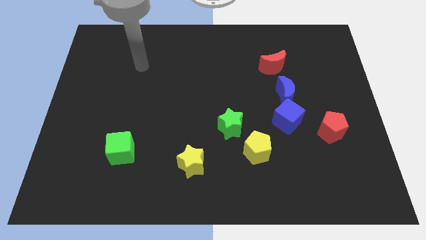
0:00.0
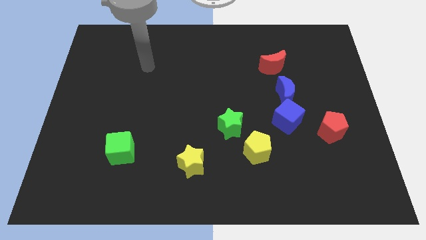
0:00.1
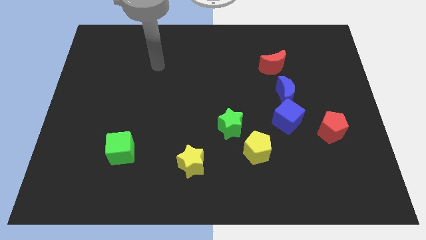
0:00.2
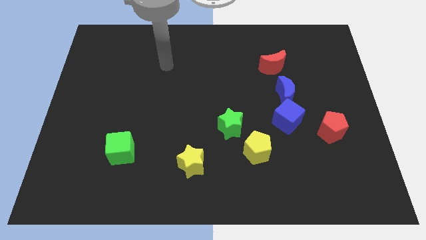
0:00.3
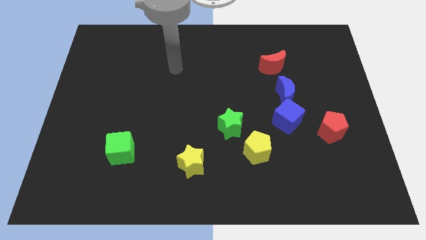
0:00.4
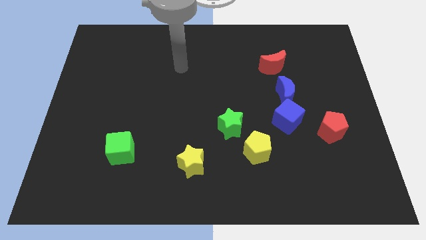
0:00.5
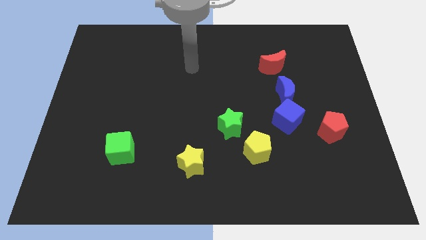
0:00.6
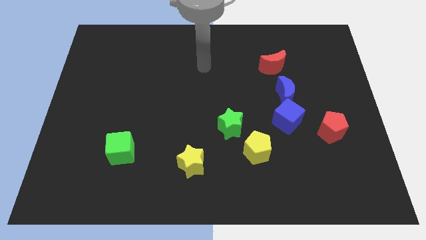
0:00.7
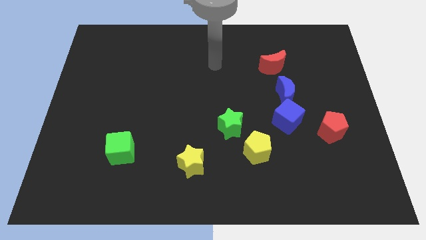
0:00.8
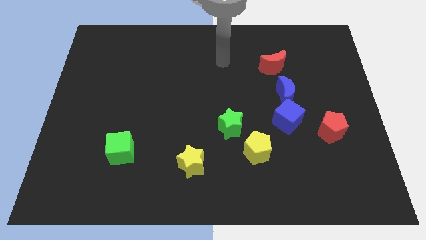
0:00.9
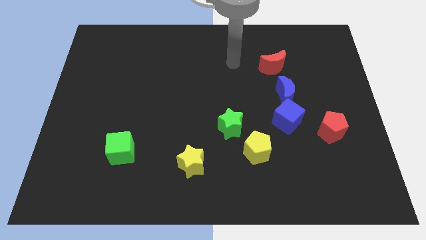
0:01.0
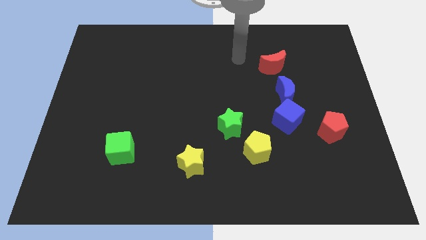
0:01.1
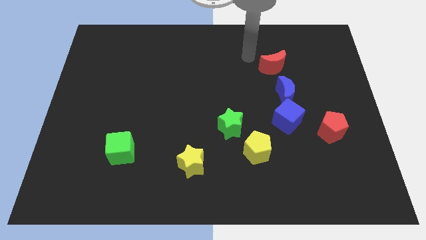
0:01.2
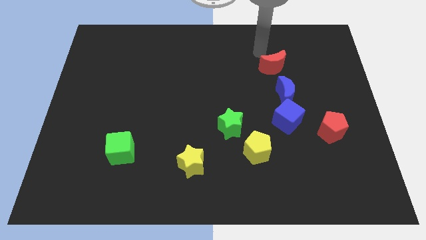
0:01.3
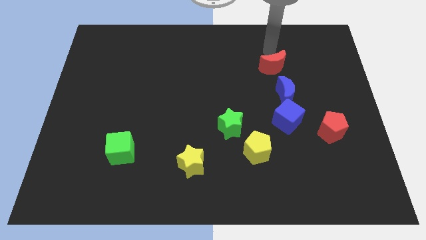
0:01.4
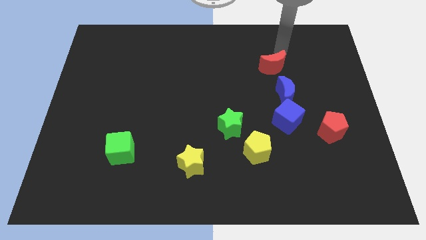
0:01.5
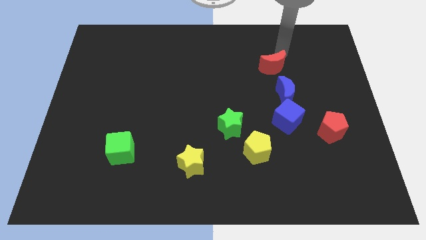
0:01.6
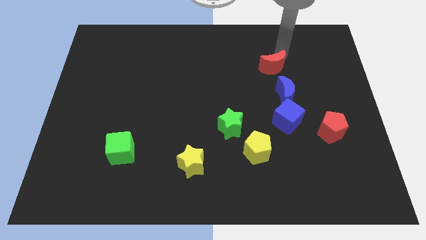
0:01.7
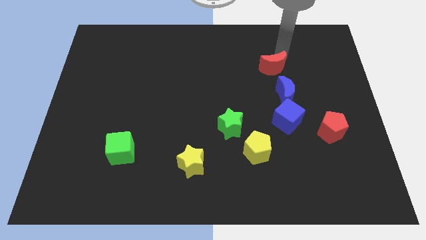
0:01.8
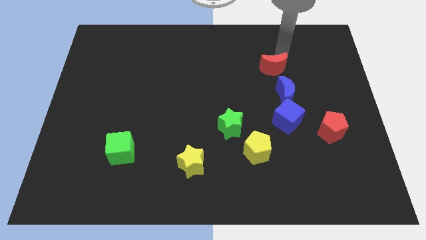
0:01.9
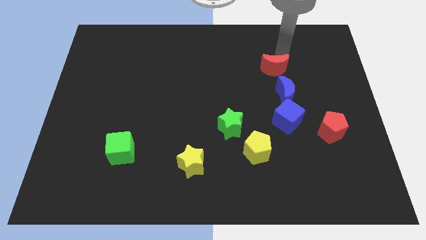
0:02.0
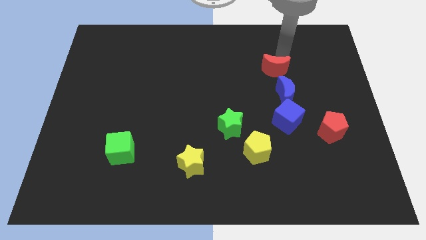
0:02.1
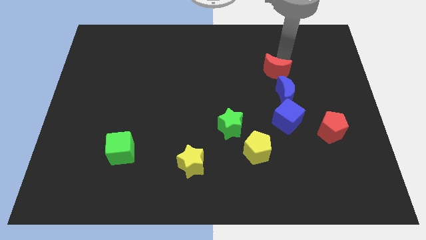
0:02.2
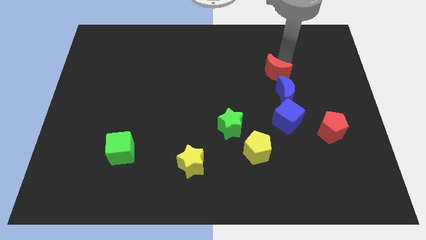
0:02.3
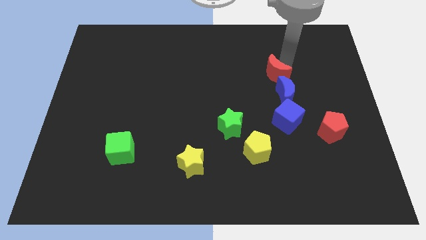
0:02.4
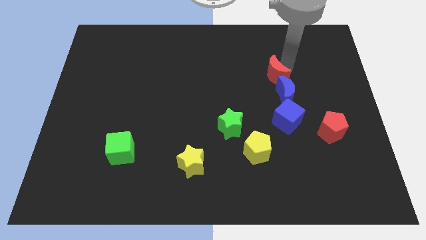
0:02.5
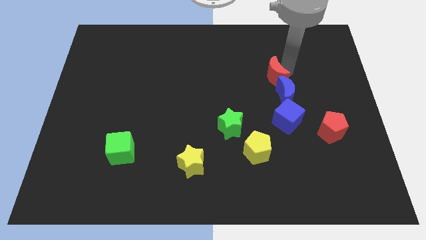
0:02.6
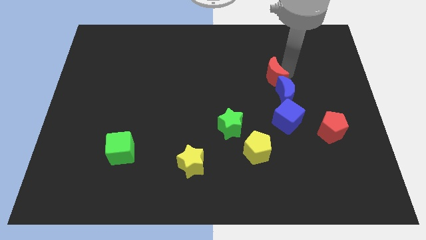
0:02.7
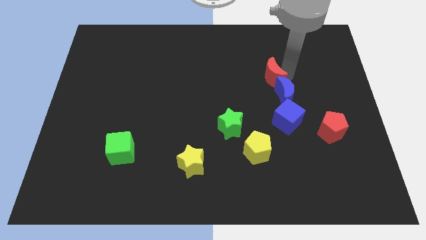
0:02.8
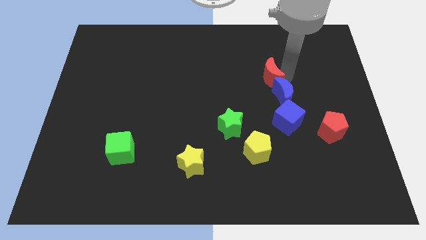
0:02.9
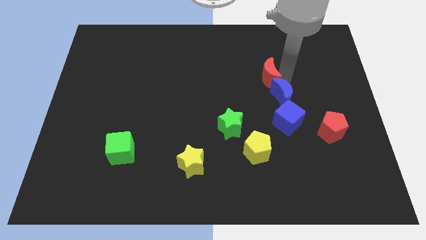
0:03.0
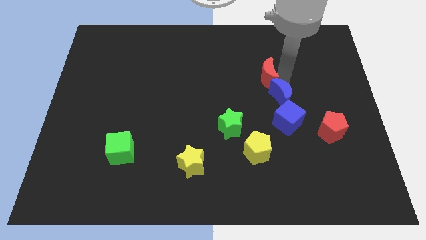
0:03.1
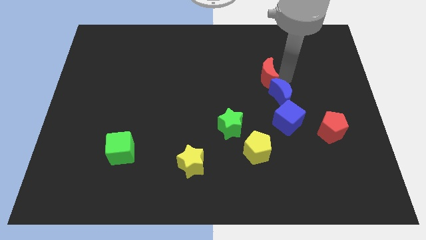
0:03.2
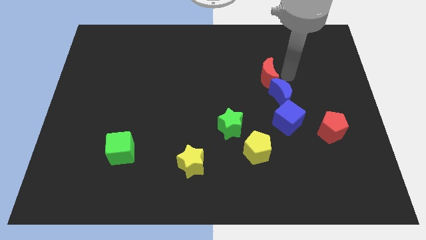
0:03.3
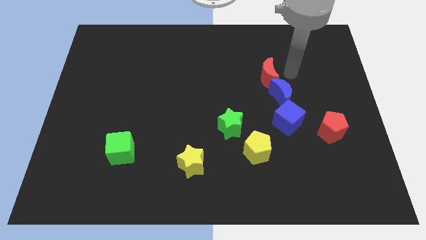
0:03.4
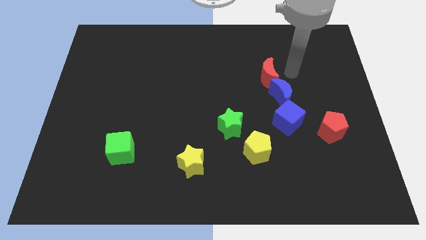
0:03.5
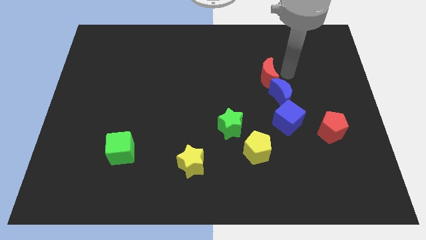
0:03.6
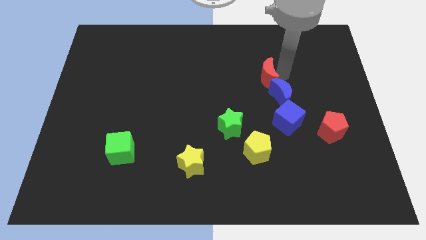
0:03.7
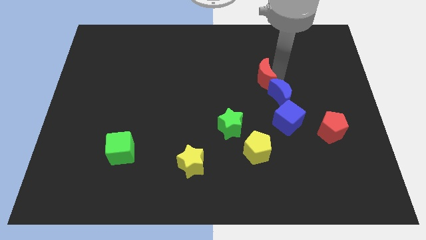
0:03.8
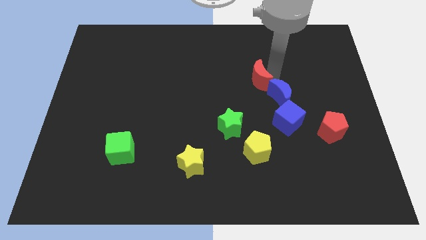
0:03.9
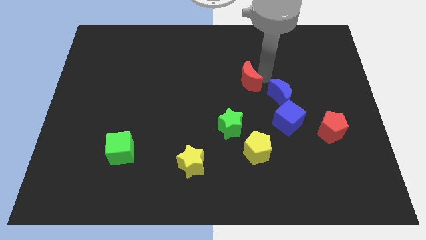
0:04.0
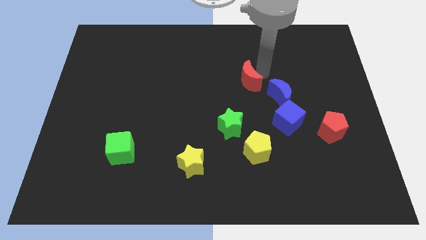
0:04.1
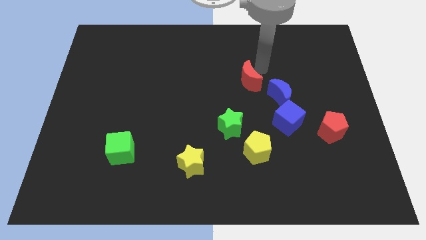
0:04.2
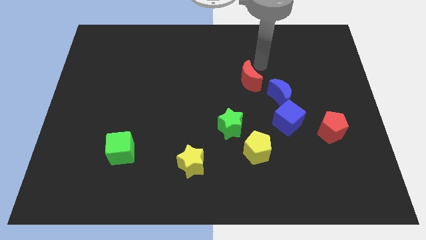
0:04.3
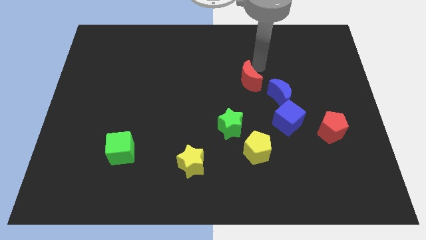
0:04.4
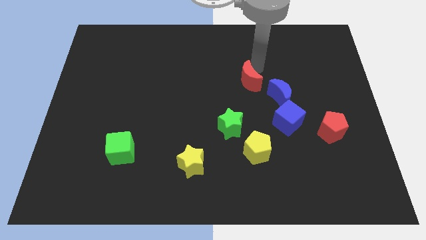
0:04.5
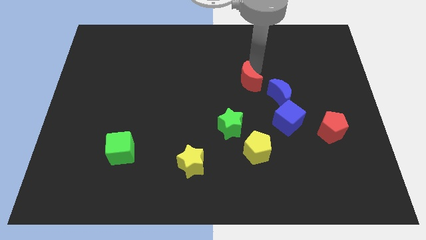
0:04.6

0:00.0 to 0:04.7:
put the red moon to the left of the blue moon

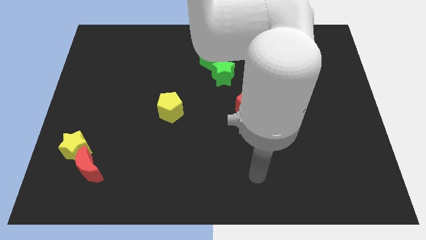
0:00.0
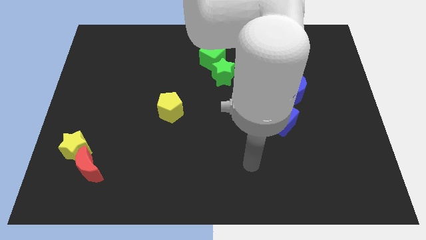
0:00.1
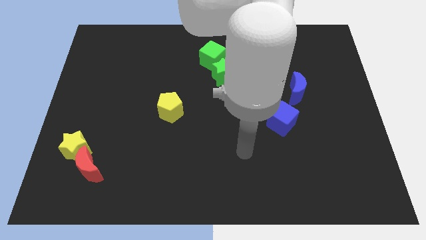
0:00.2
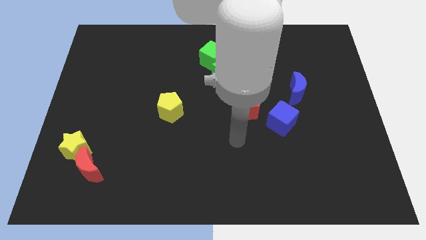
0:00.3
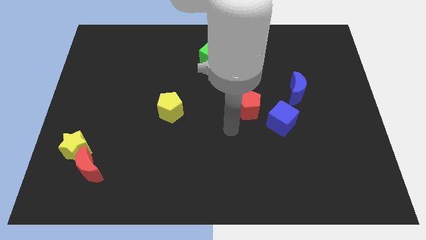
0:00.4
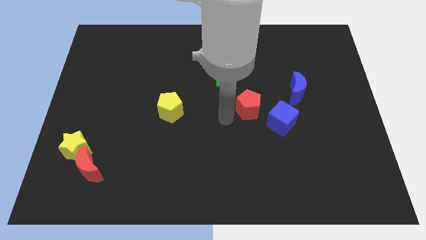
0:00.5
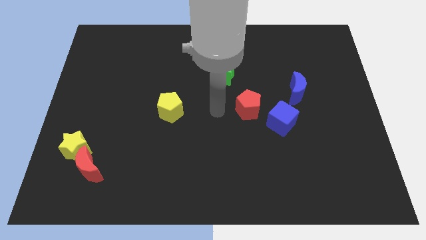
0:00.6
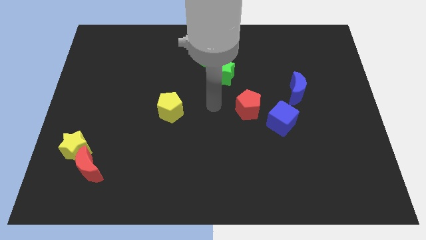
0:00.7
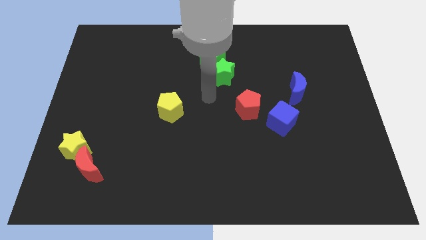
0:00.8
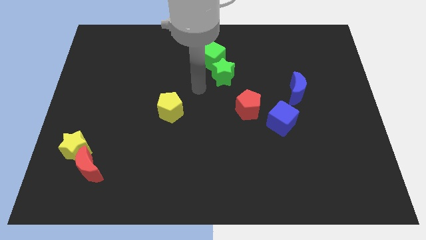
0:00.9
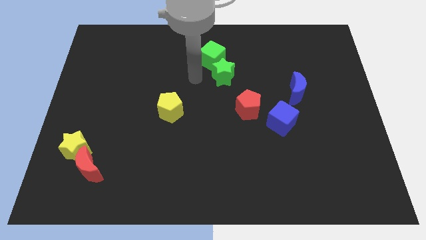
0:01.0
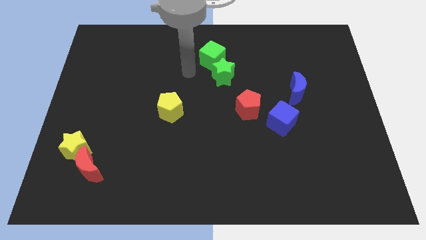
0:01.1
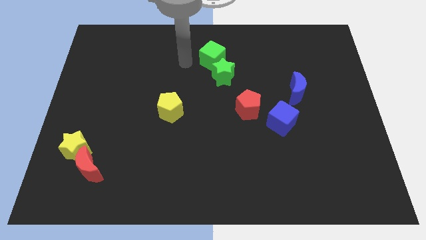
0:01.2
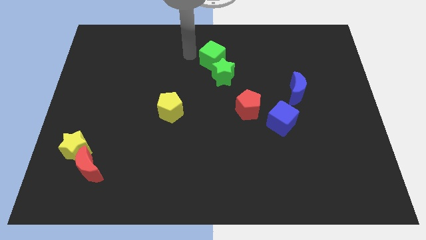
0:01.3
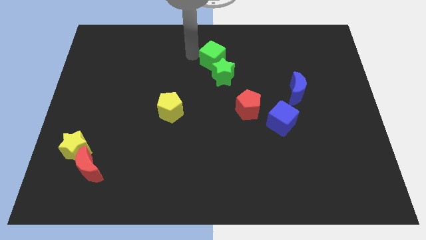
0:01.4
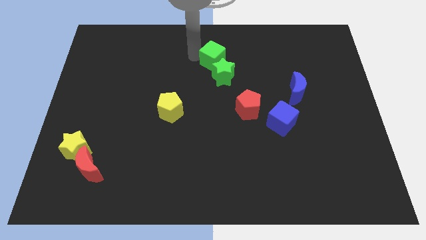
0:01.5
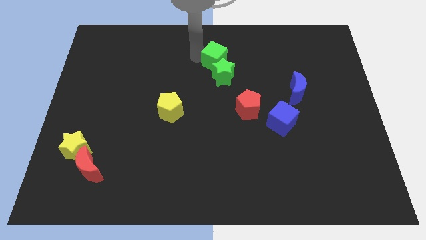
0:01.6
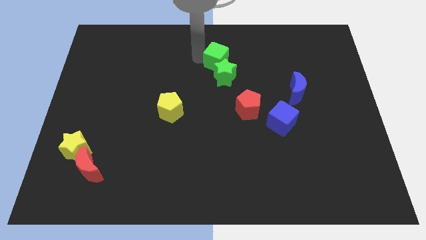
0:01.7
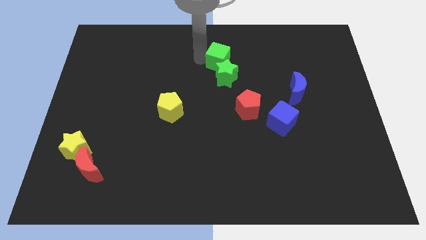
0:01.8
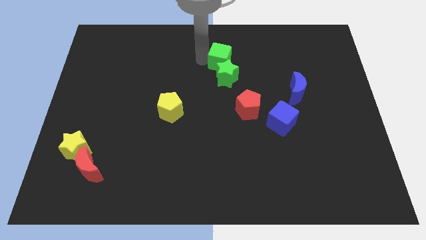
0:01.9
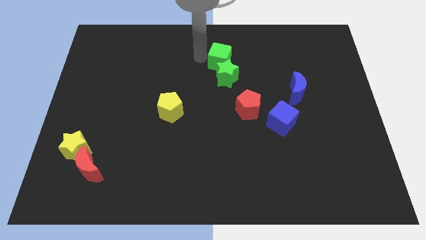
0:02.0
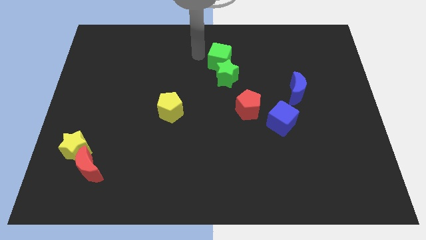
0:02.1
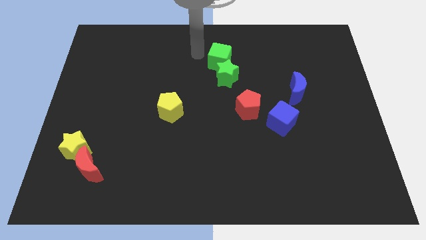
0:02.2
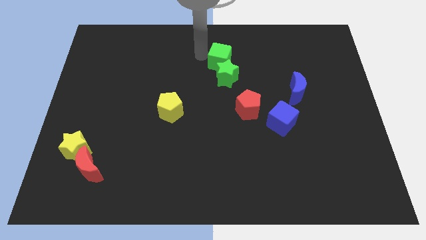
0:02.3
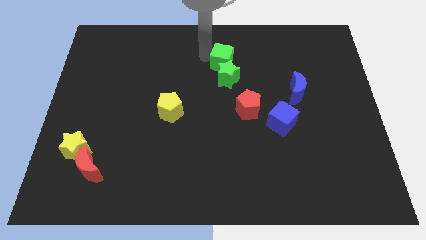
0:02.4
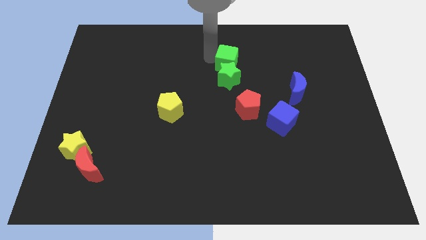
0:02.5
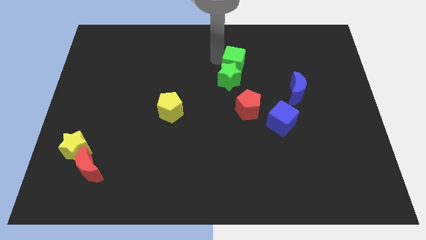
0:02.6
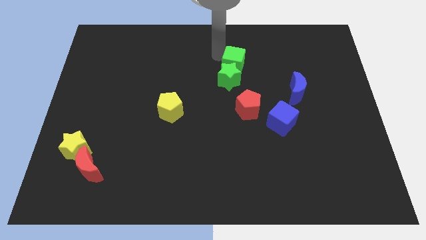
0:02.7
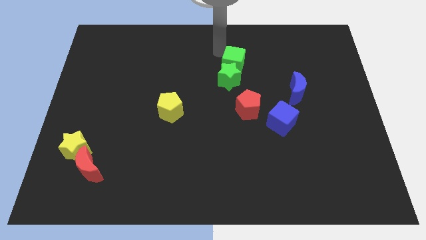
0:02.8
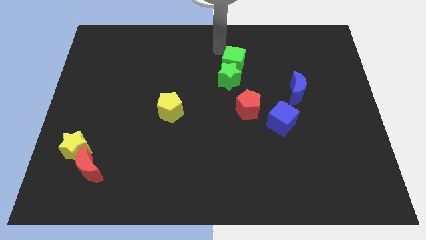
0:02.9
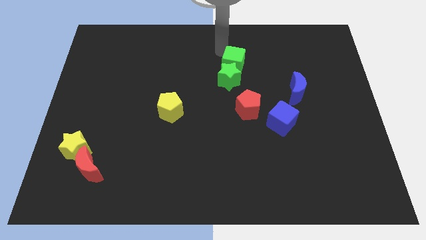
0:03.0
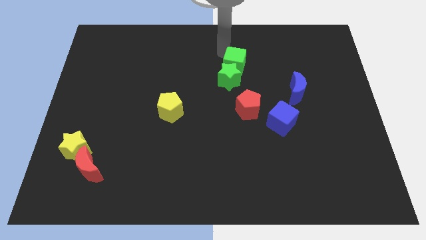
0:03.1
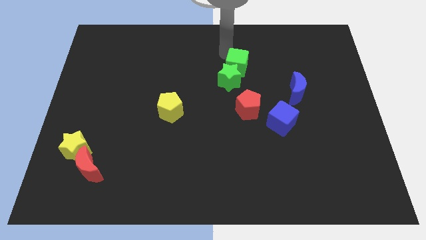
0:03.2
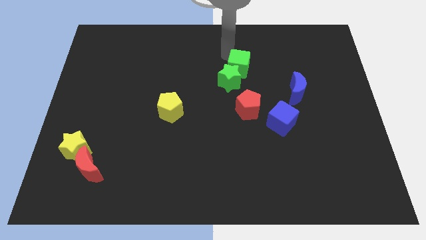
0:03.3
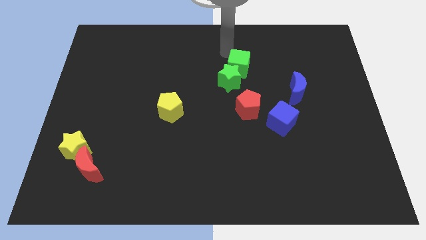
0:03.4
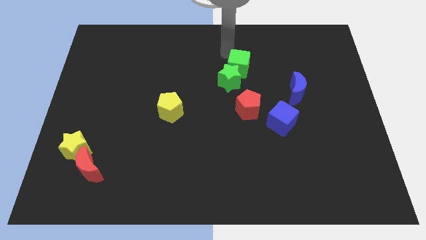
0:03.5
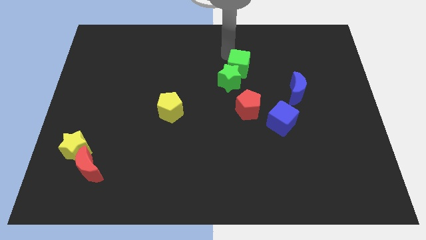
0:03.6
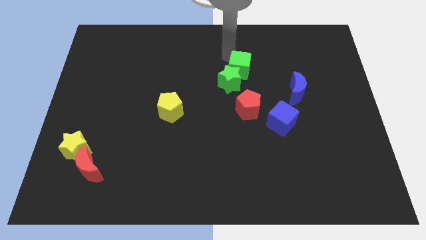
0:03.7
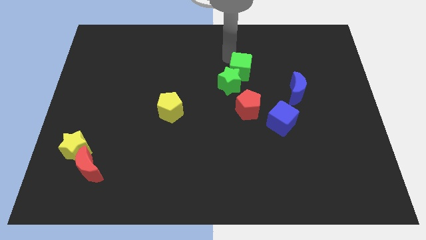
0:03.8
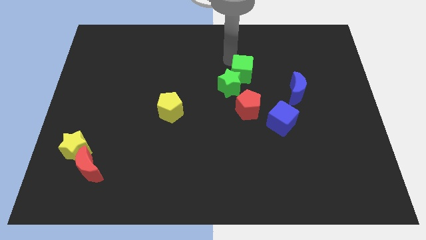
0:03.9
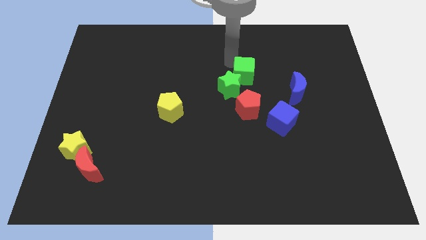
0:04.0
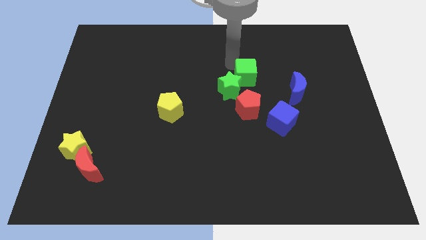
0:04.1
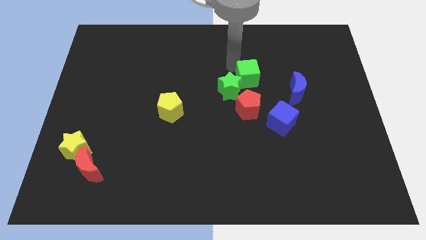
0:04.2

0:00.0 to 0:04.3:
move the green cube to the left side of the blue moon
